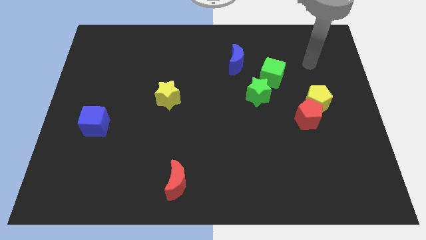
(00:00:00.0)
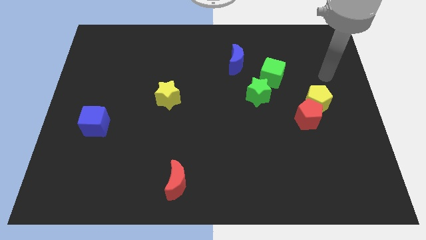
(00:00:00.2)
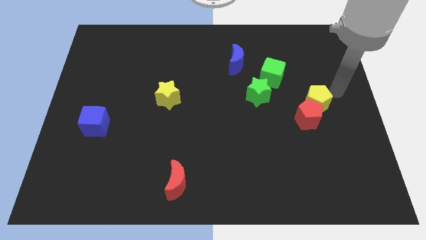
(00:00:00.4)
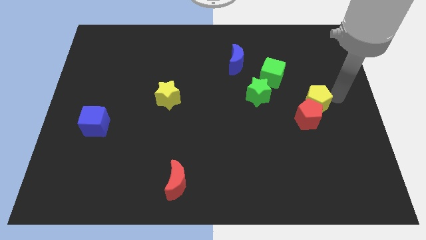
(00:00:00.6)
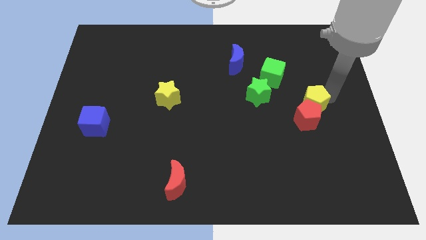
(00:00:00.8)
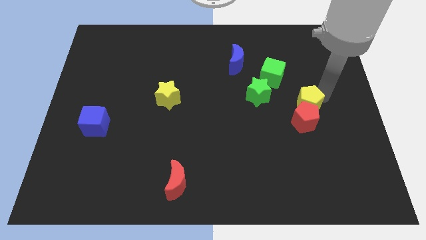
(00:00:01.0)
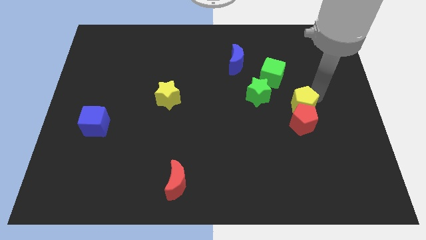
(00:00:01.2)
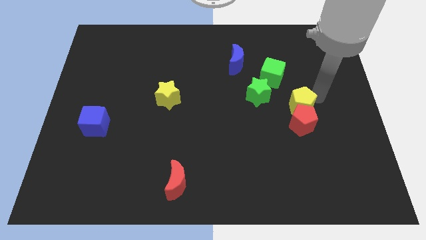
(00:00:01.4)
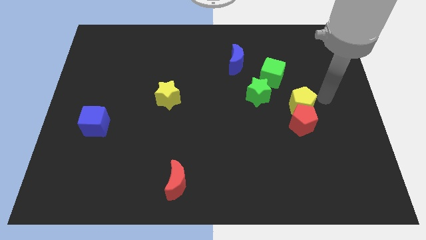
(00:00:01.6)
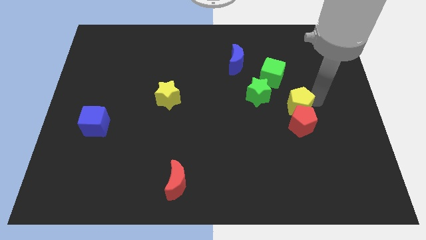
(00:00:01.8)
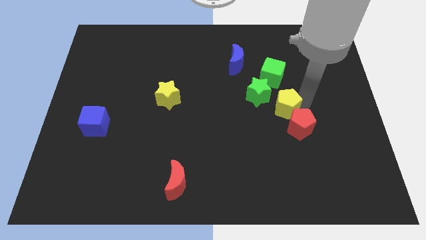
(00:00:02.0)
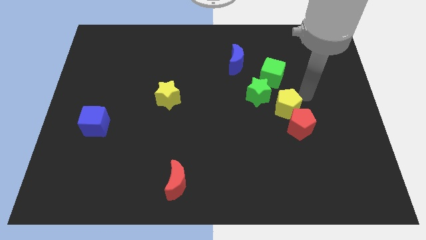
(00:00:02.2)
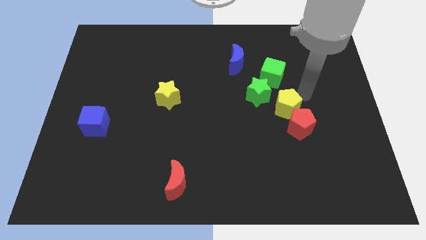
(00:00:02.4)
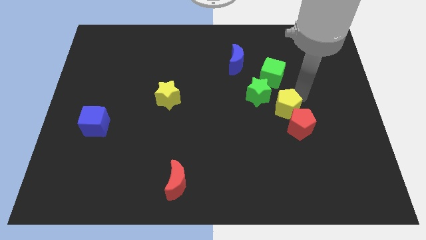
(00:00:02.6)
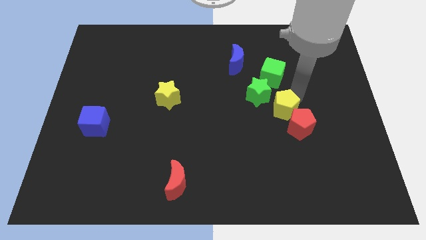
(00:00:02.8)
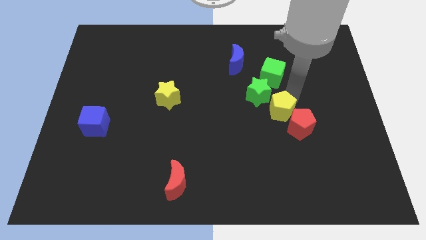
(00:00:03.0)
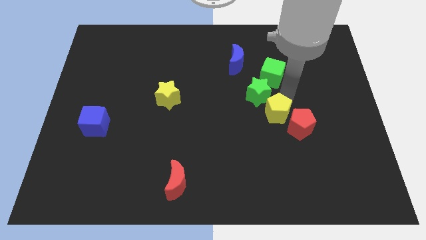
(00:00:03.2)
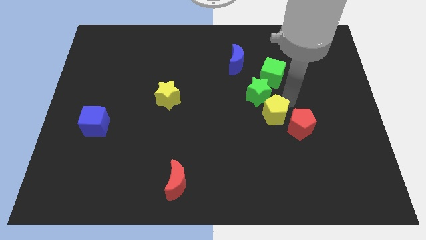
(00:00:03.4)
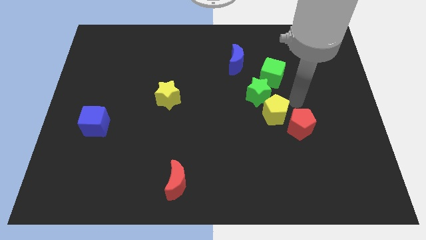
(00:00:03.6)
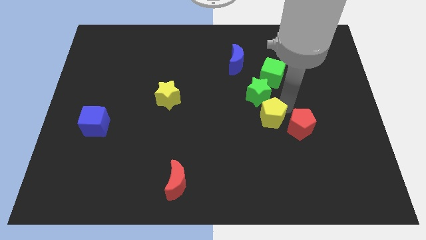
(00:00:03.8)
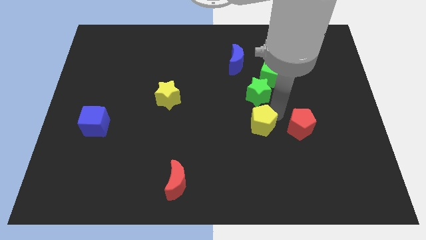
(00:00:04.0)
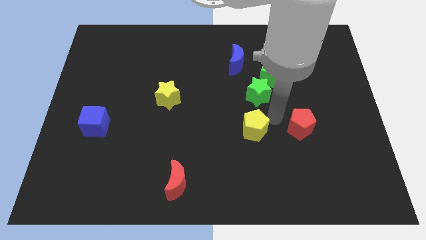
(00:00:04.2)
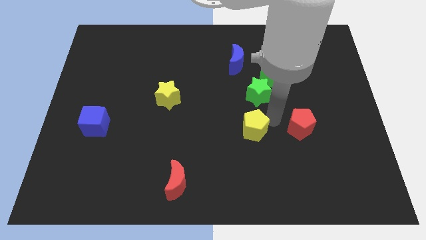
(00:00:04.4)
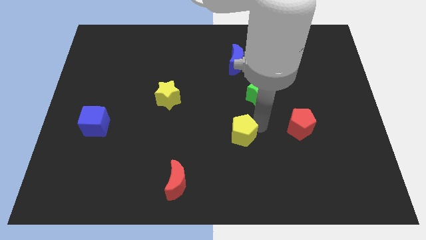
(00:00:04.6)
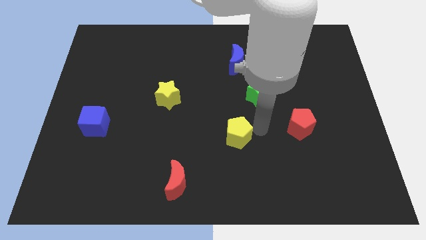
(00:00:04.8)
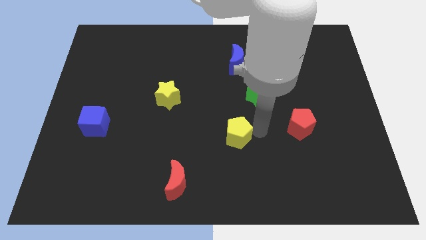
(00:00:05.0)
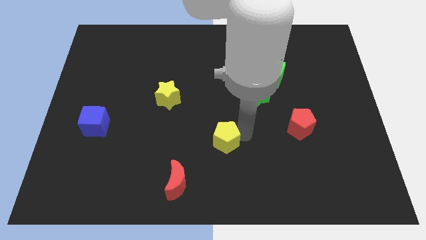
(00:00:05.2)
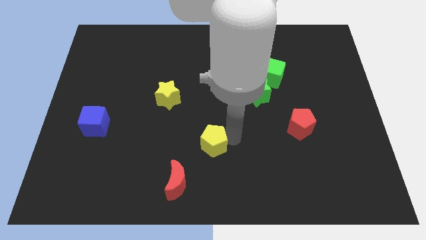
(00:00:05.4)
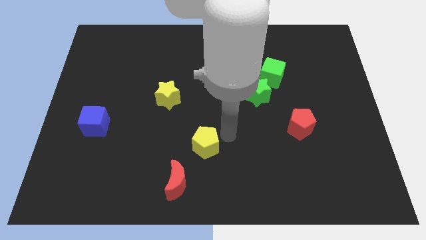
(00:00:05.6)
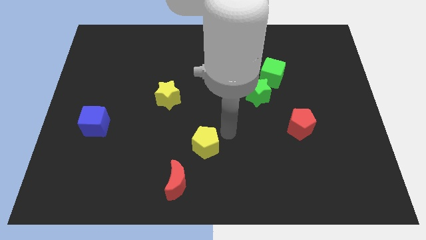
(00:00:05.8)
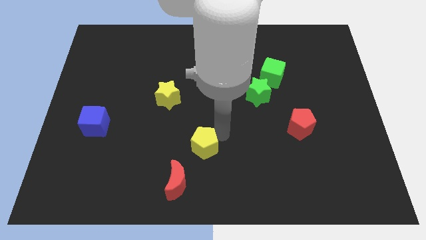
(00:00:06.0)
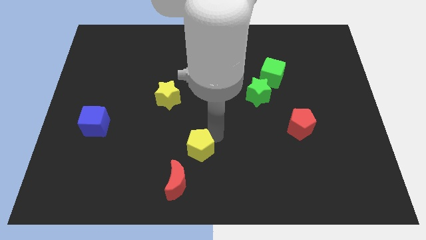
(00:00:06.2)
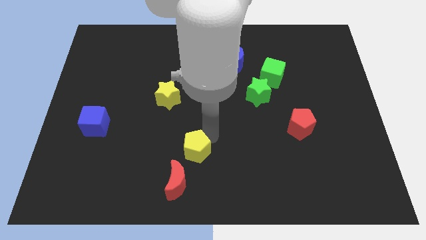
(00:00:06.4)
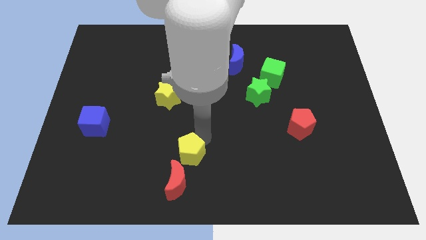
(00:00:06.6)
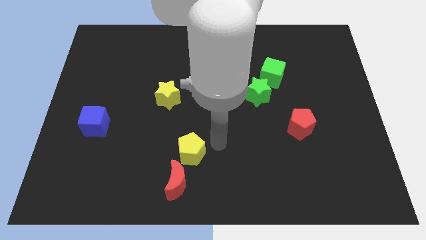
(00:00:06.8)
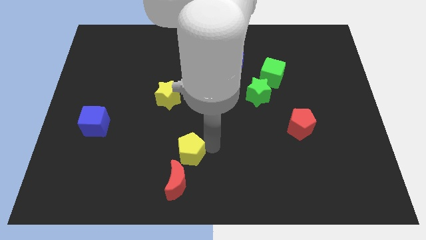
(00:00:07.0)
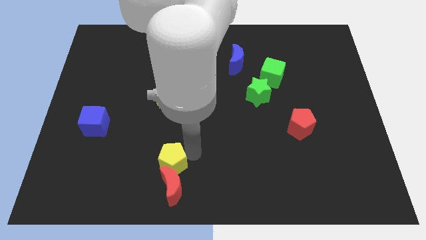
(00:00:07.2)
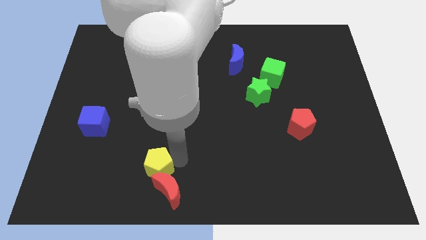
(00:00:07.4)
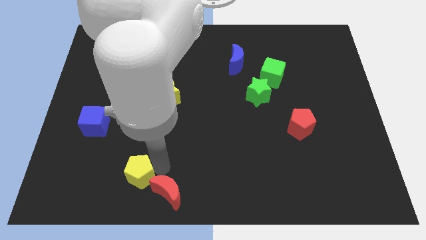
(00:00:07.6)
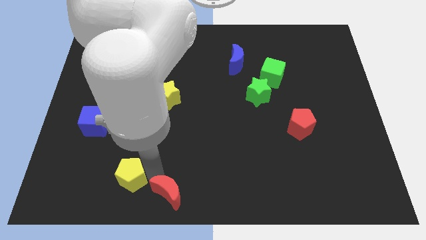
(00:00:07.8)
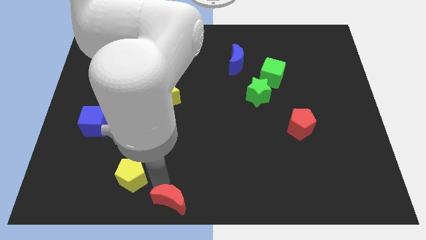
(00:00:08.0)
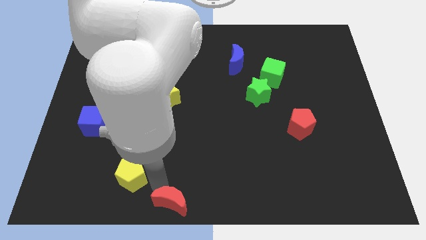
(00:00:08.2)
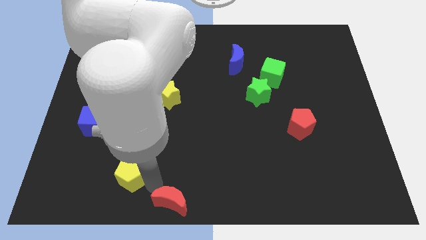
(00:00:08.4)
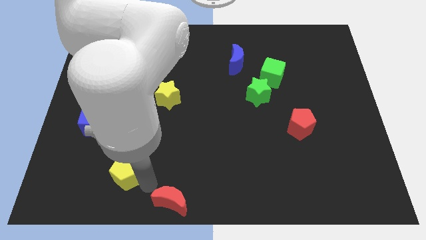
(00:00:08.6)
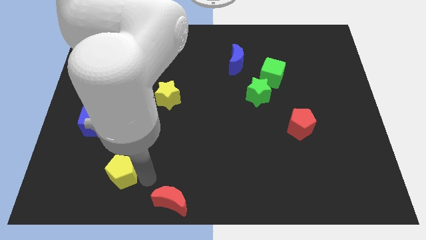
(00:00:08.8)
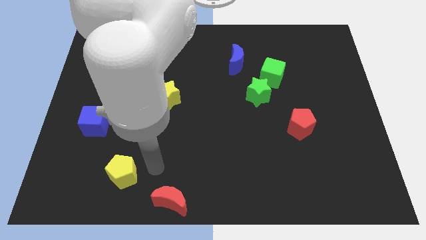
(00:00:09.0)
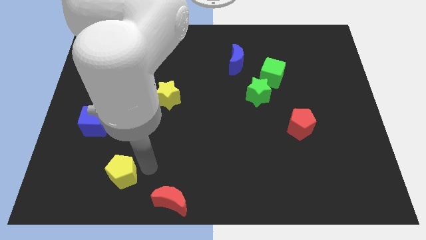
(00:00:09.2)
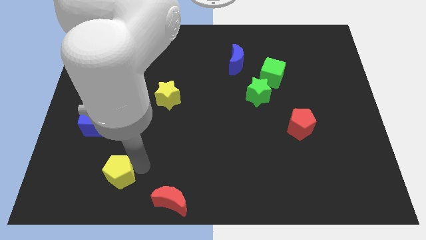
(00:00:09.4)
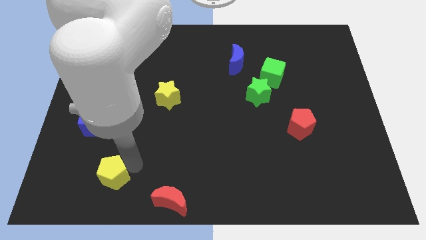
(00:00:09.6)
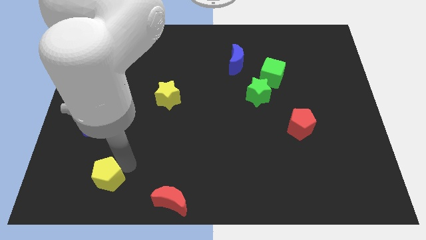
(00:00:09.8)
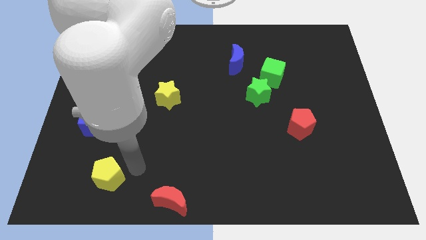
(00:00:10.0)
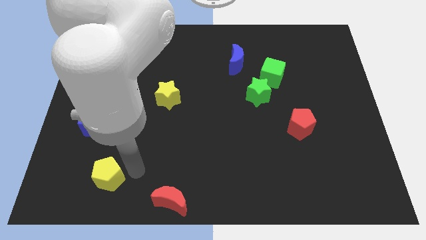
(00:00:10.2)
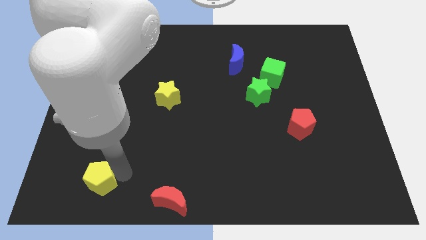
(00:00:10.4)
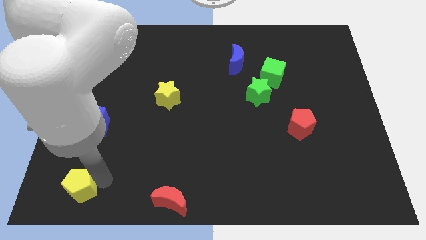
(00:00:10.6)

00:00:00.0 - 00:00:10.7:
move the yellow pentagon to the lower left corner
